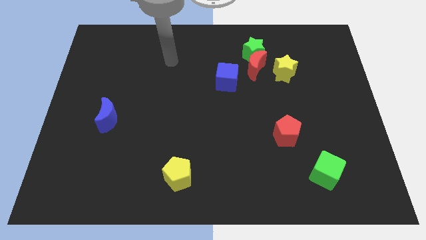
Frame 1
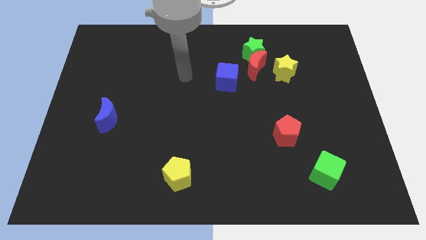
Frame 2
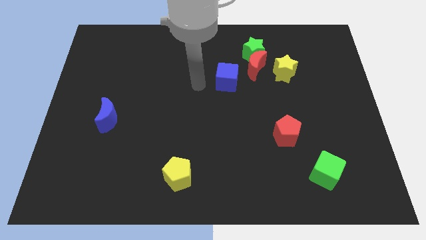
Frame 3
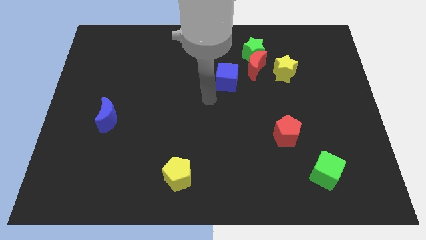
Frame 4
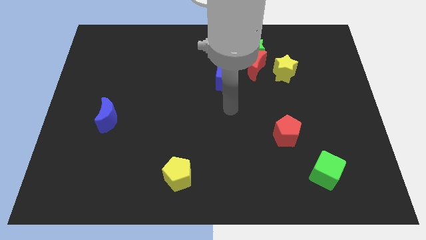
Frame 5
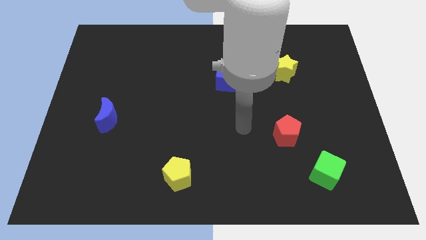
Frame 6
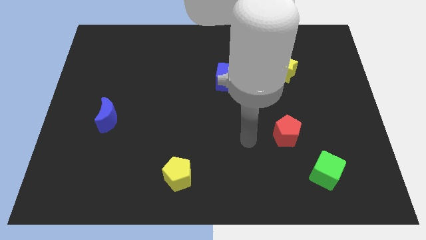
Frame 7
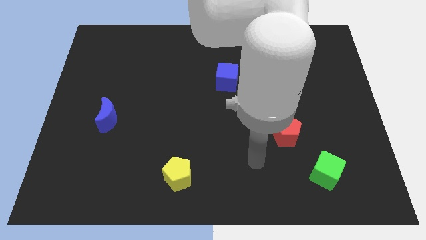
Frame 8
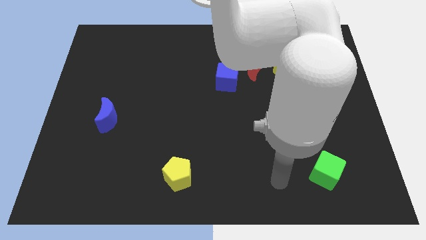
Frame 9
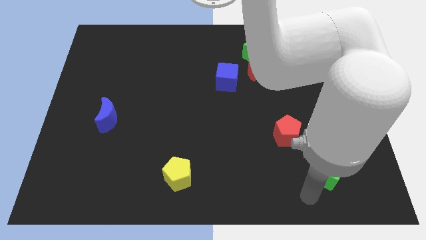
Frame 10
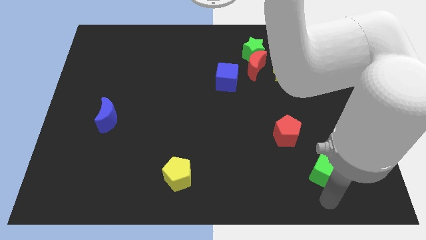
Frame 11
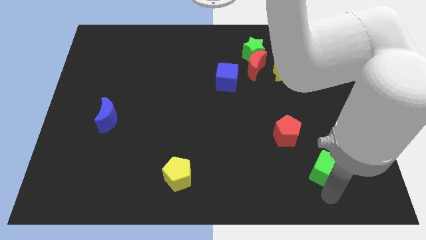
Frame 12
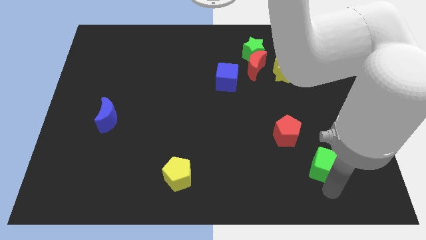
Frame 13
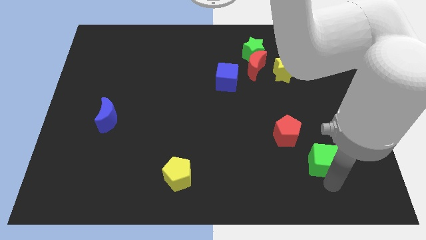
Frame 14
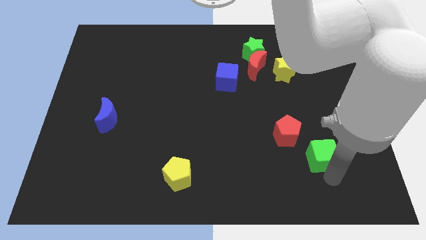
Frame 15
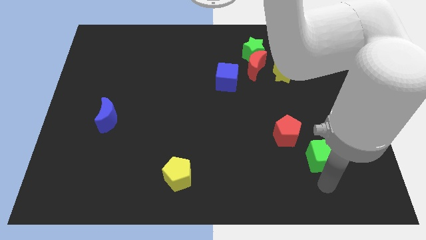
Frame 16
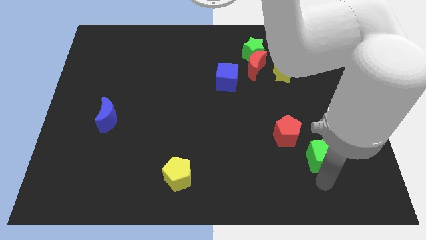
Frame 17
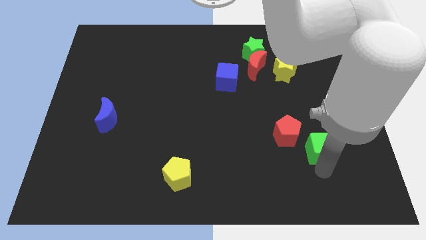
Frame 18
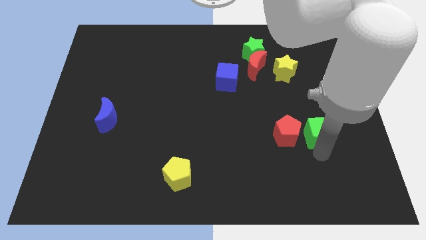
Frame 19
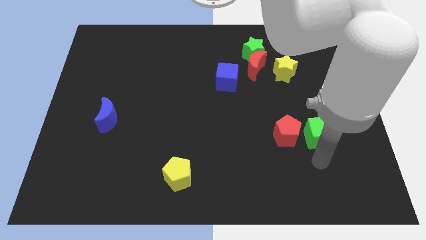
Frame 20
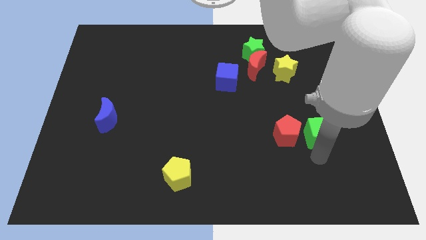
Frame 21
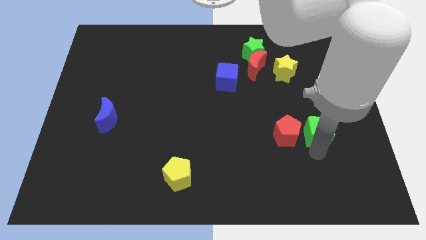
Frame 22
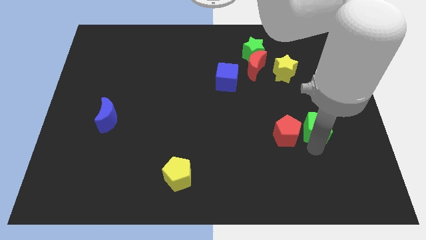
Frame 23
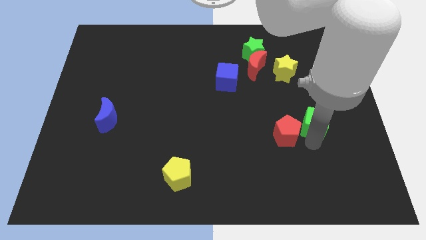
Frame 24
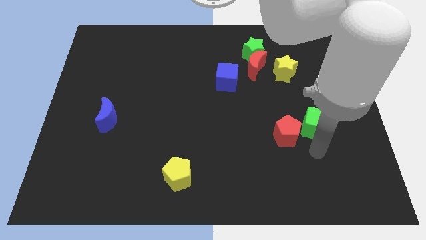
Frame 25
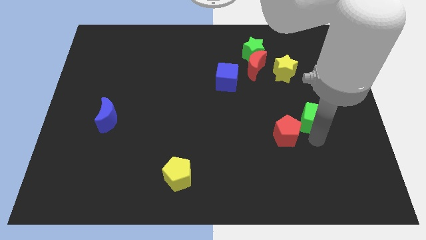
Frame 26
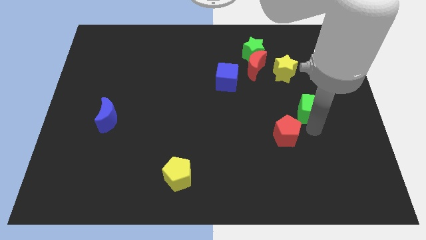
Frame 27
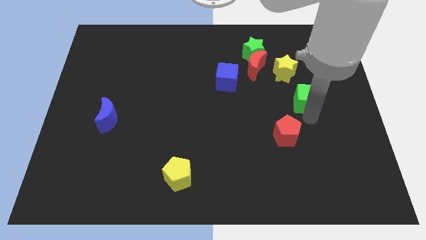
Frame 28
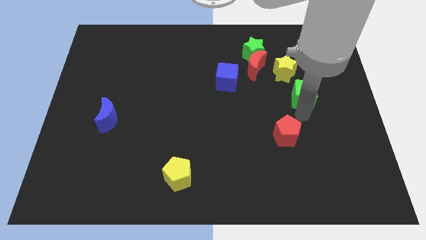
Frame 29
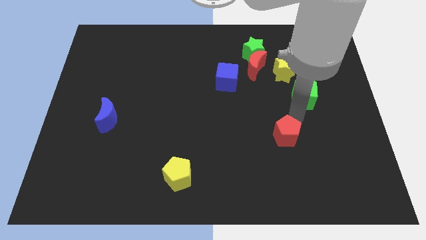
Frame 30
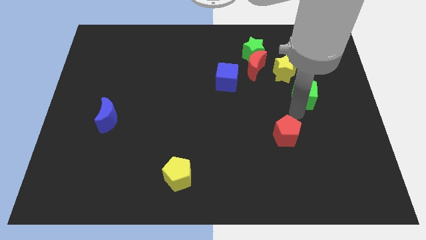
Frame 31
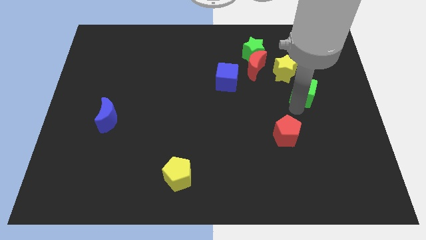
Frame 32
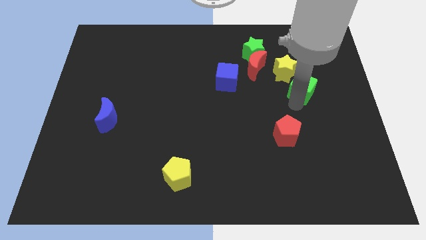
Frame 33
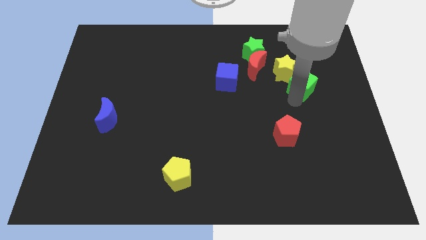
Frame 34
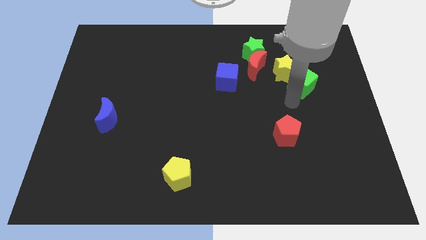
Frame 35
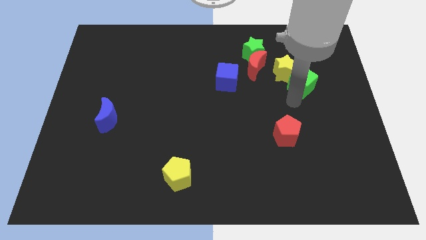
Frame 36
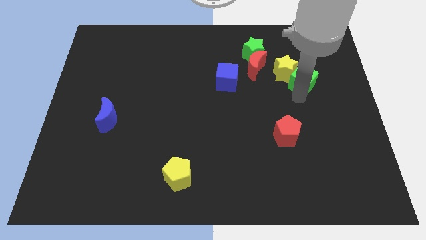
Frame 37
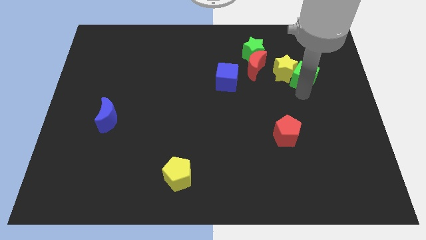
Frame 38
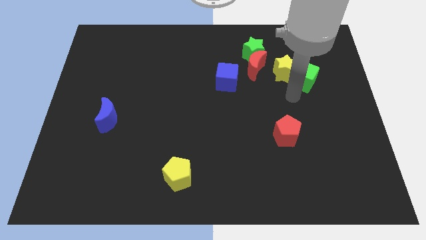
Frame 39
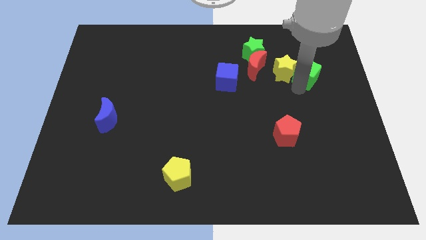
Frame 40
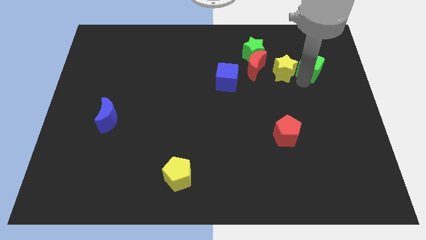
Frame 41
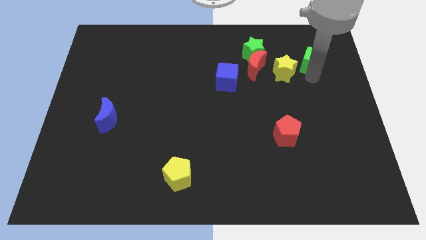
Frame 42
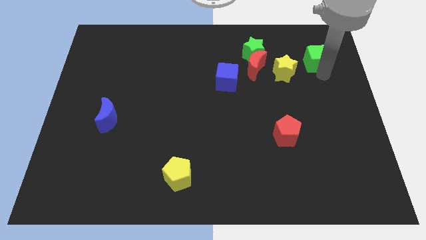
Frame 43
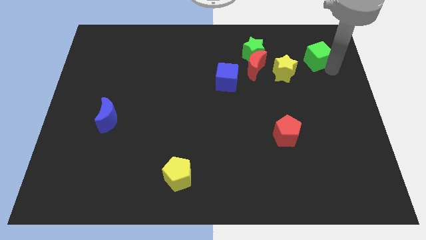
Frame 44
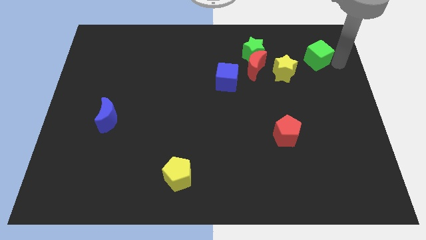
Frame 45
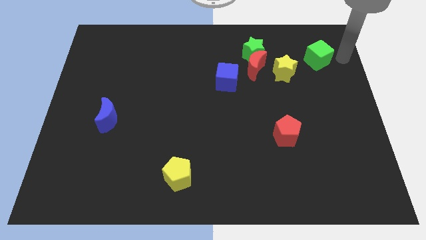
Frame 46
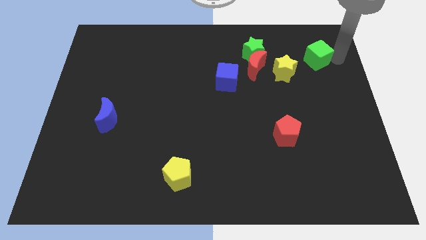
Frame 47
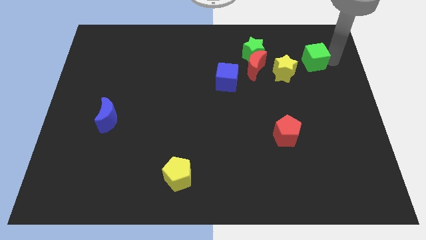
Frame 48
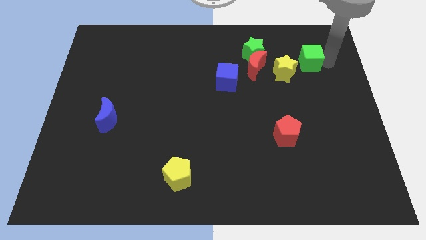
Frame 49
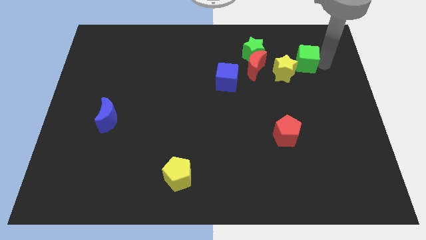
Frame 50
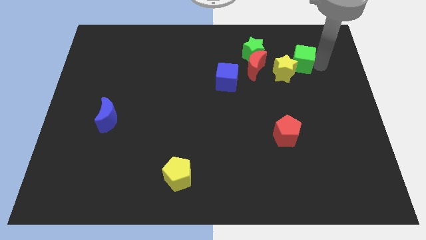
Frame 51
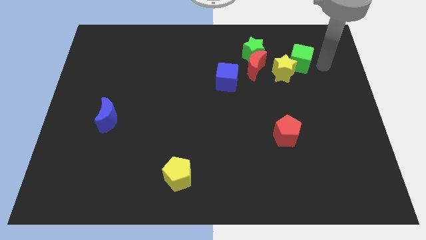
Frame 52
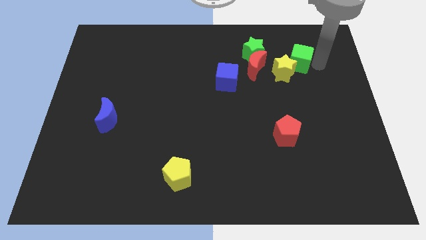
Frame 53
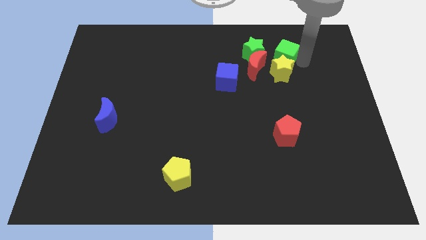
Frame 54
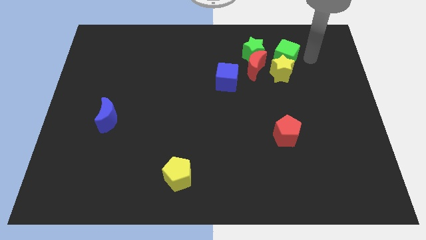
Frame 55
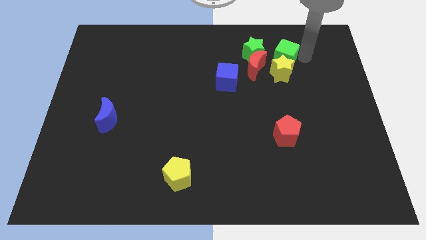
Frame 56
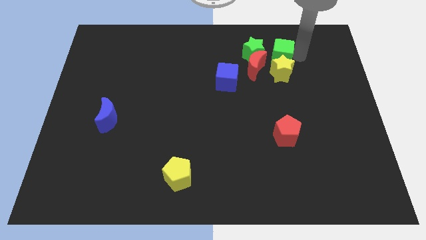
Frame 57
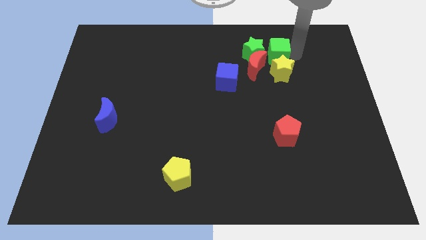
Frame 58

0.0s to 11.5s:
move the green cube towards the green star
